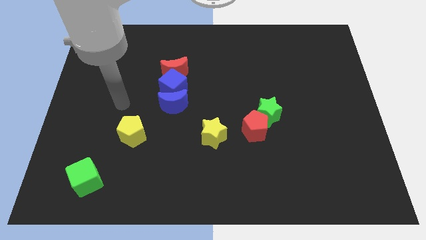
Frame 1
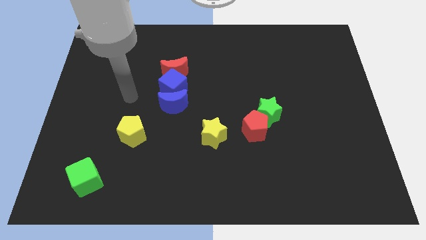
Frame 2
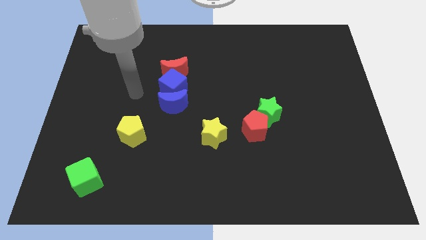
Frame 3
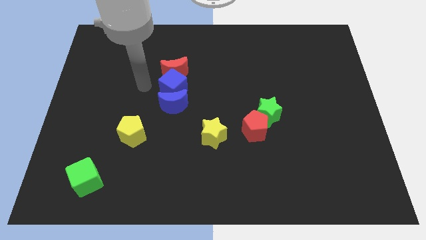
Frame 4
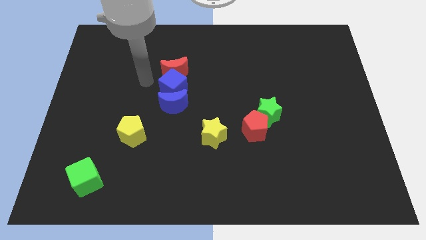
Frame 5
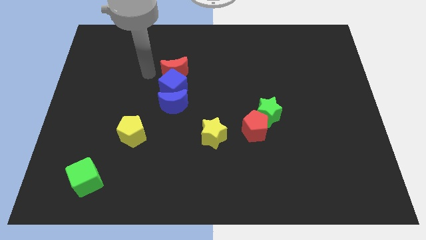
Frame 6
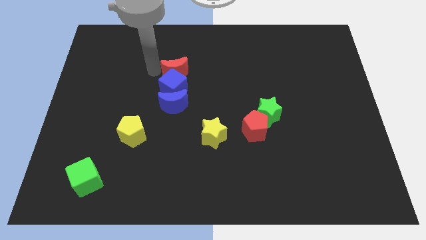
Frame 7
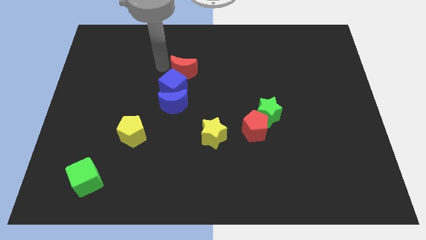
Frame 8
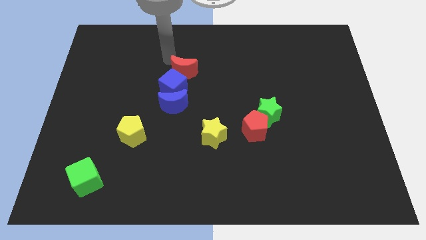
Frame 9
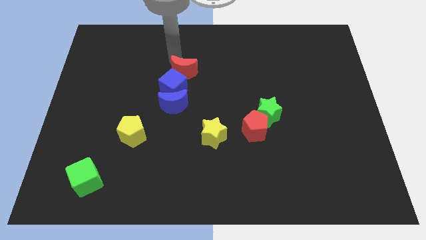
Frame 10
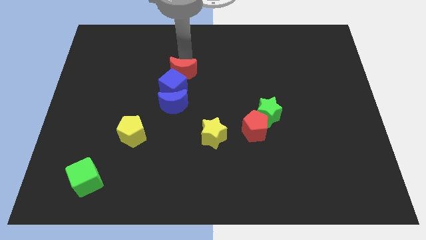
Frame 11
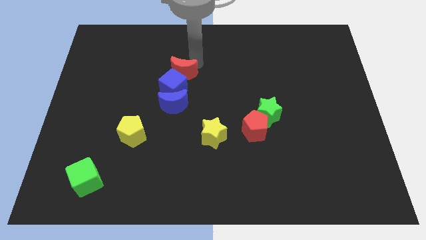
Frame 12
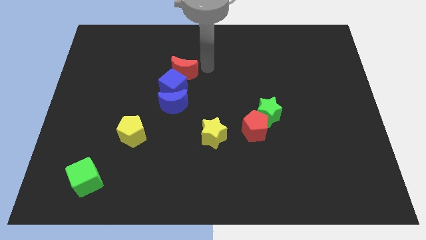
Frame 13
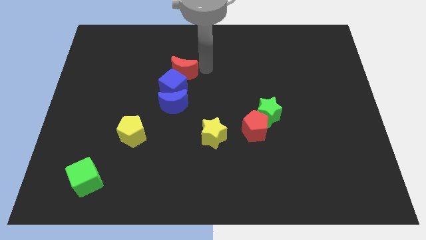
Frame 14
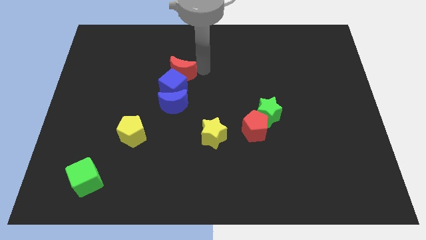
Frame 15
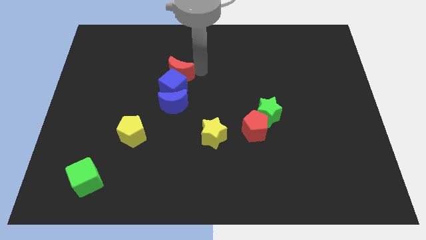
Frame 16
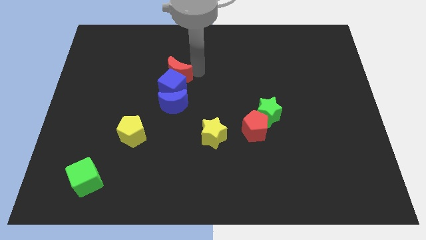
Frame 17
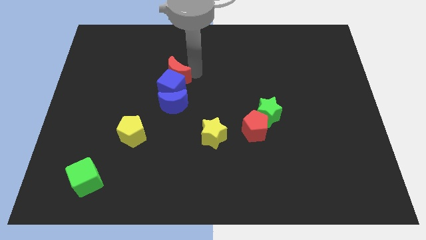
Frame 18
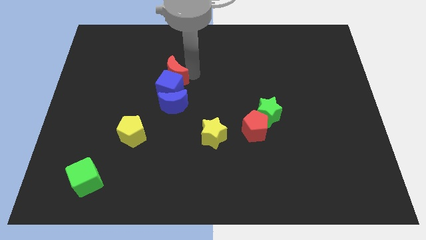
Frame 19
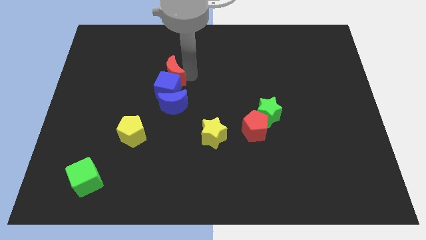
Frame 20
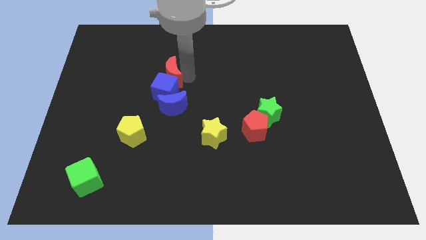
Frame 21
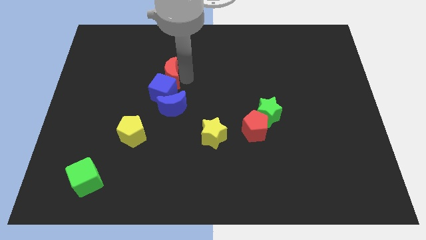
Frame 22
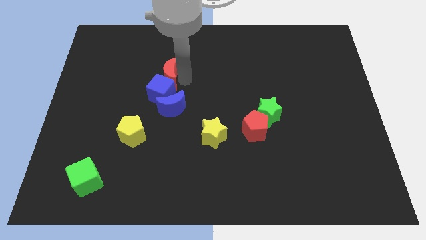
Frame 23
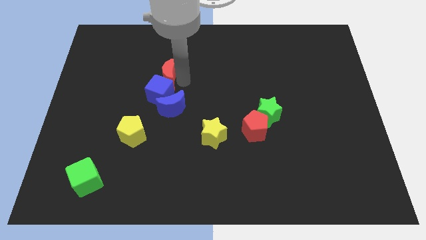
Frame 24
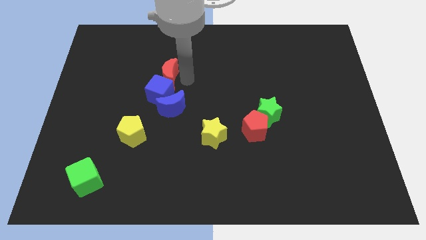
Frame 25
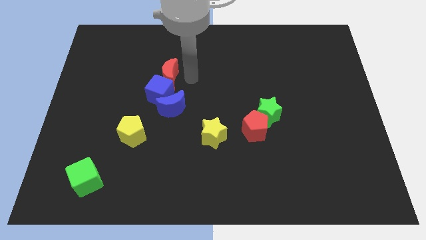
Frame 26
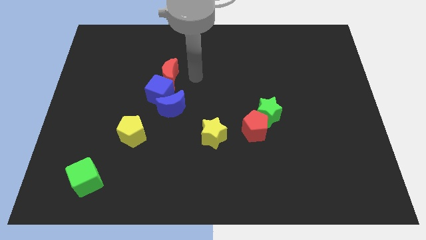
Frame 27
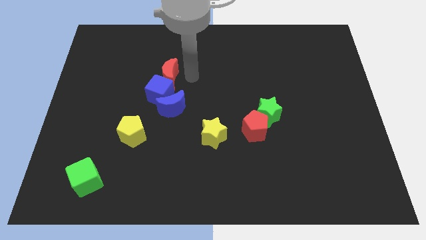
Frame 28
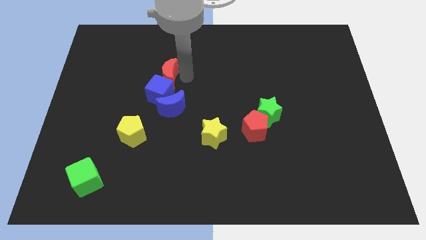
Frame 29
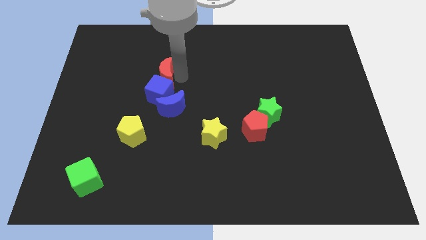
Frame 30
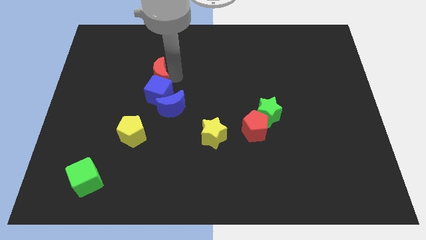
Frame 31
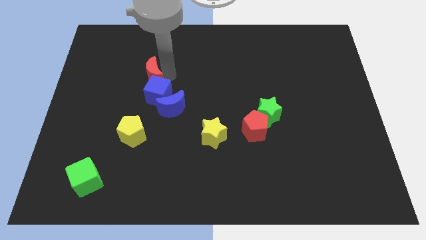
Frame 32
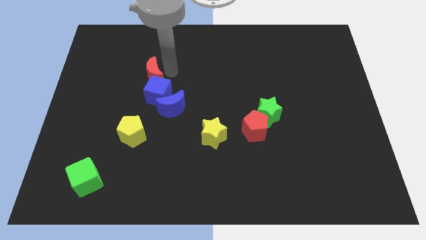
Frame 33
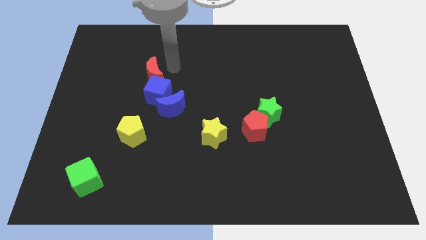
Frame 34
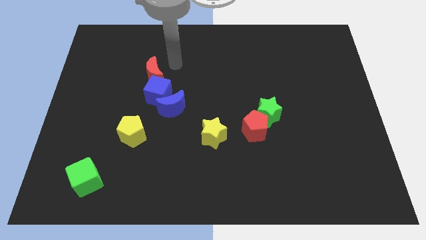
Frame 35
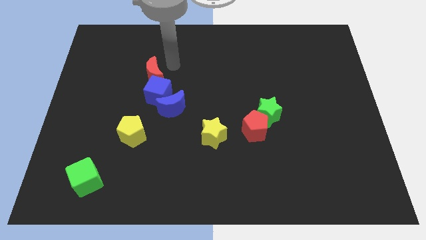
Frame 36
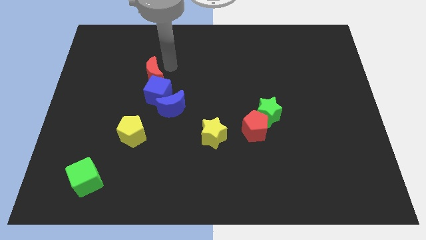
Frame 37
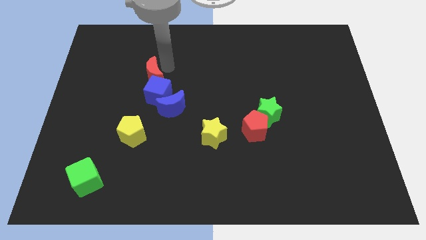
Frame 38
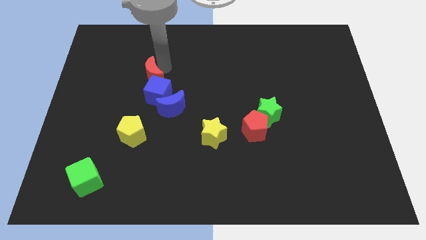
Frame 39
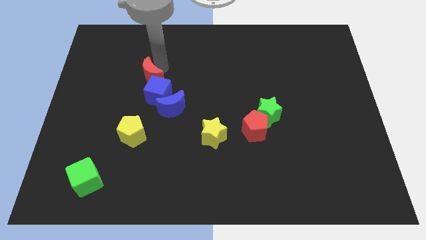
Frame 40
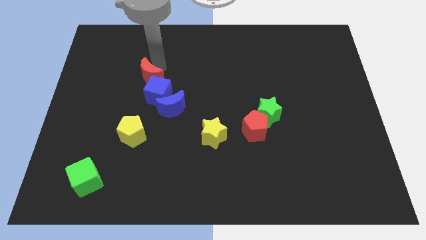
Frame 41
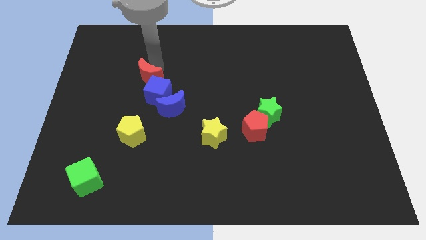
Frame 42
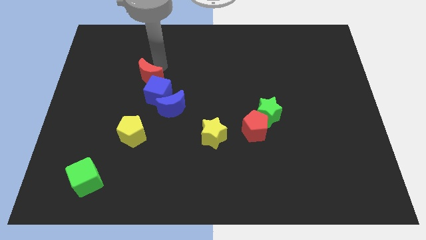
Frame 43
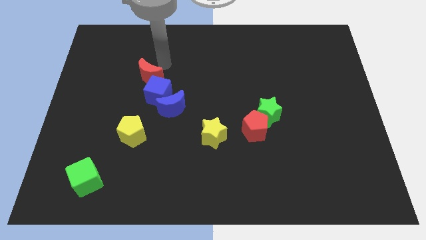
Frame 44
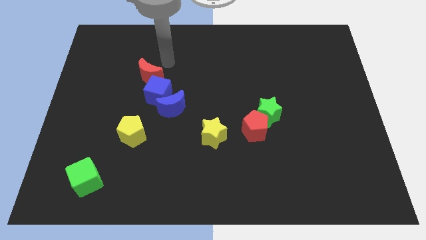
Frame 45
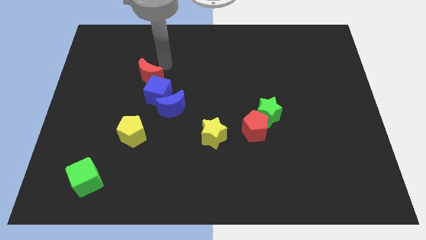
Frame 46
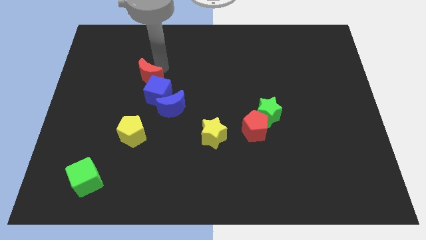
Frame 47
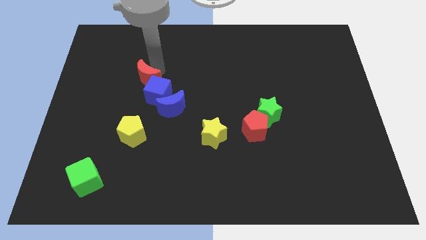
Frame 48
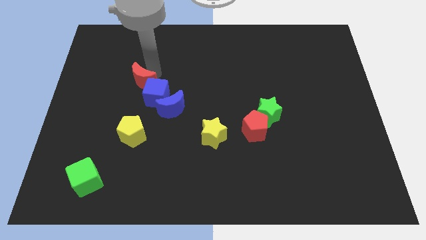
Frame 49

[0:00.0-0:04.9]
move the red moon a little bit down and then to the left

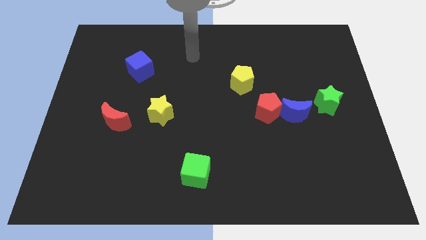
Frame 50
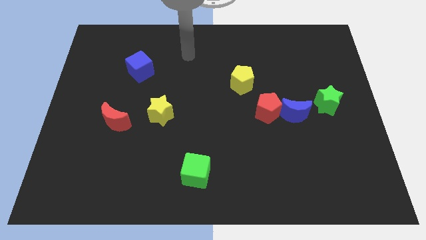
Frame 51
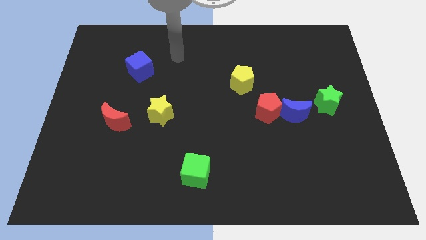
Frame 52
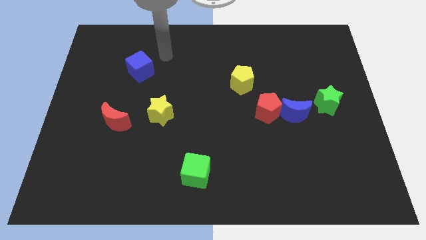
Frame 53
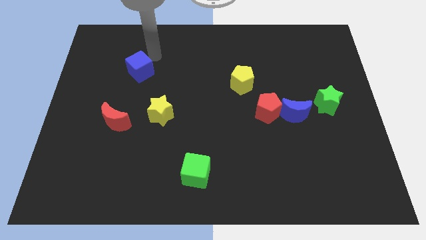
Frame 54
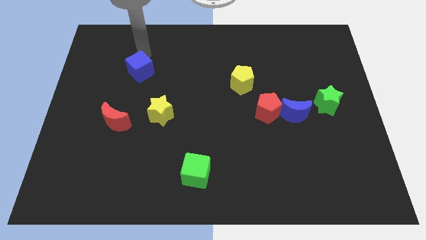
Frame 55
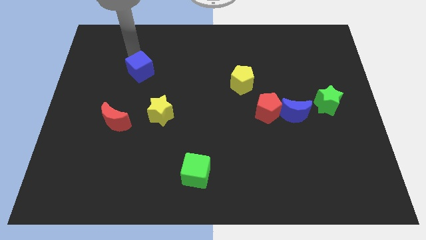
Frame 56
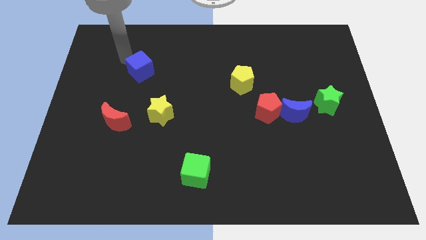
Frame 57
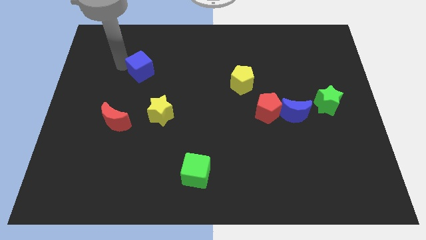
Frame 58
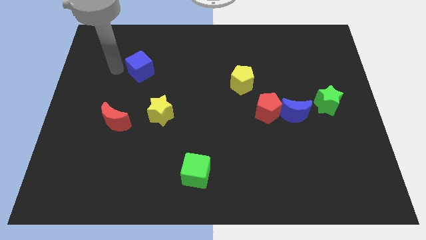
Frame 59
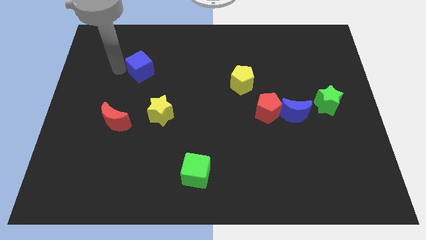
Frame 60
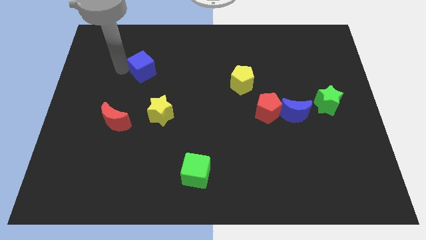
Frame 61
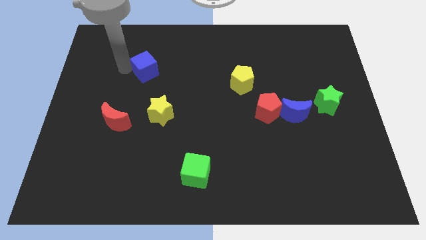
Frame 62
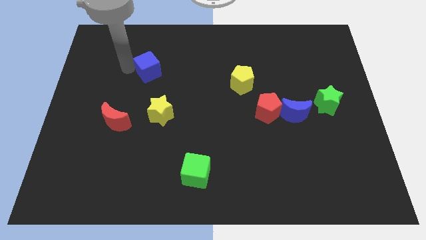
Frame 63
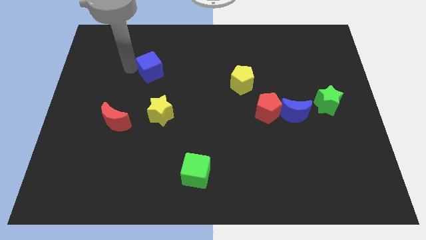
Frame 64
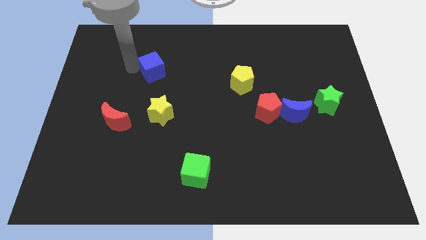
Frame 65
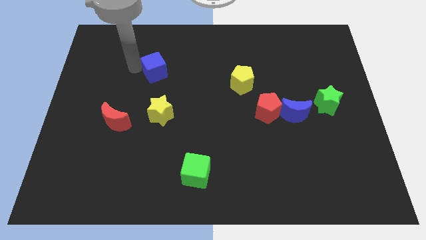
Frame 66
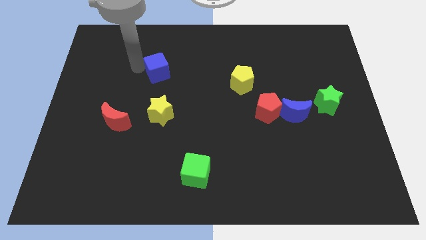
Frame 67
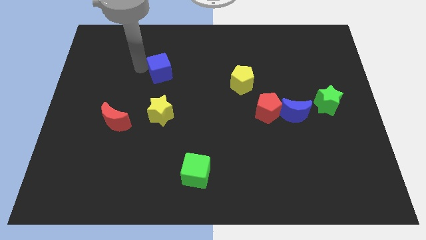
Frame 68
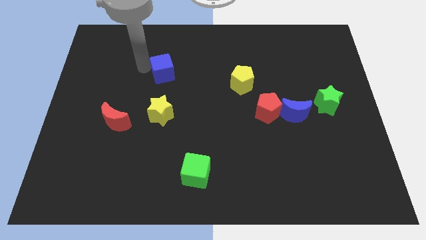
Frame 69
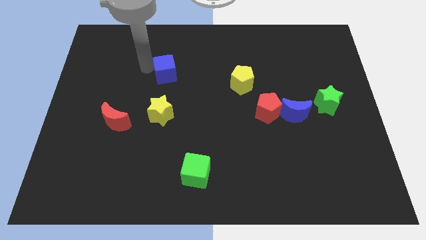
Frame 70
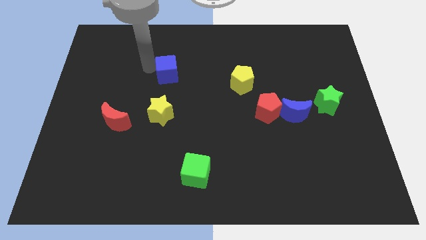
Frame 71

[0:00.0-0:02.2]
move the blue cube slightly to the right

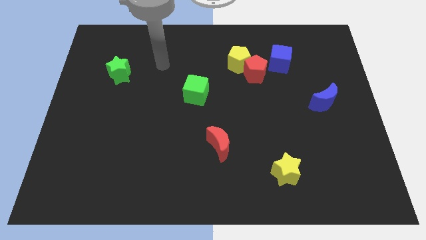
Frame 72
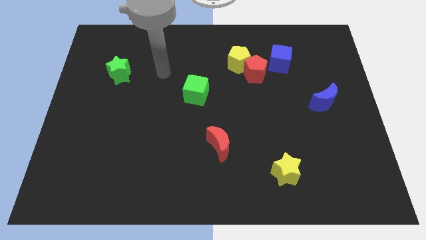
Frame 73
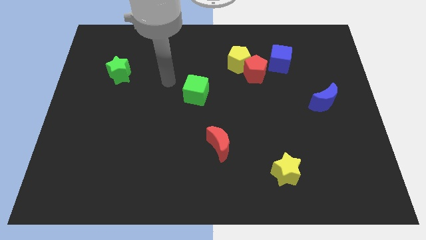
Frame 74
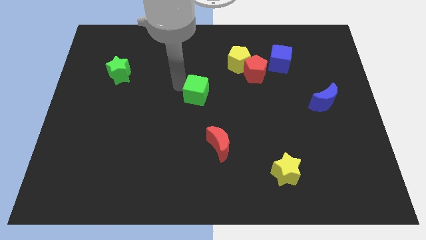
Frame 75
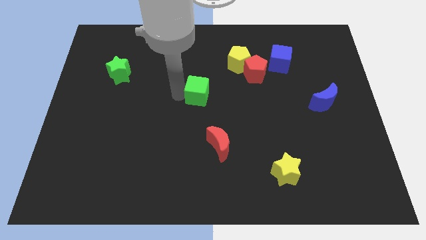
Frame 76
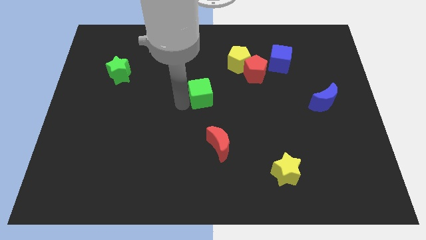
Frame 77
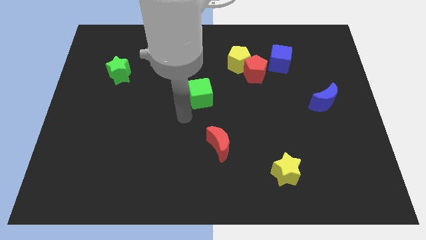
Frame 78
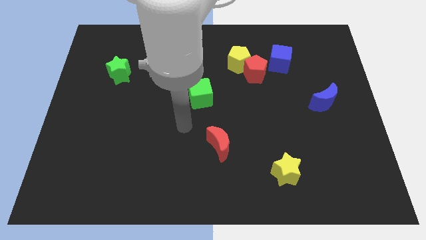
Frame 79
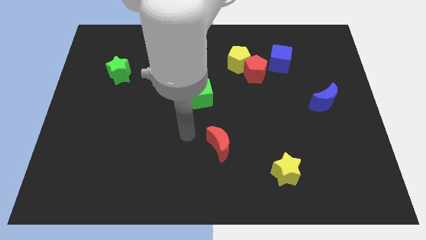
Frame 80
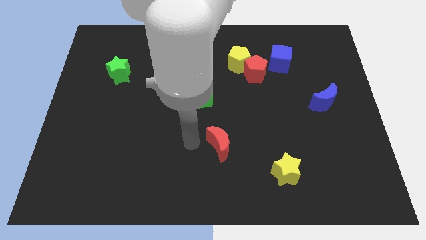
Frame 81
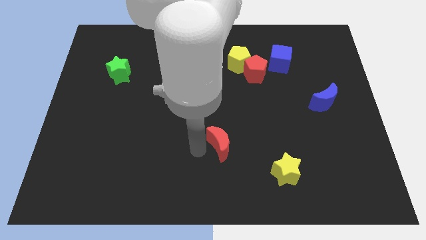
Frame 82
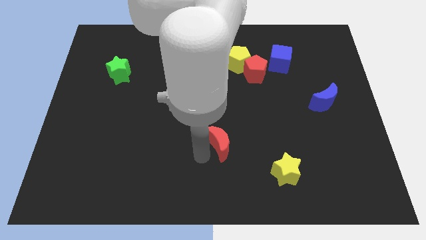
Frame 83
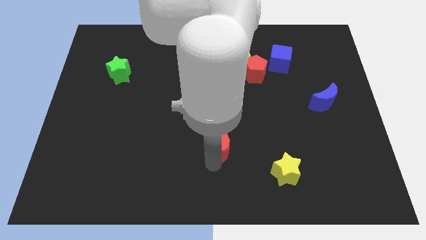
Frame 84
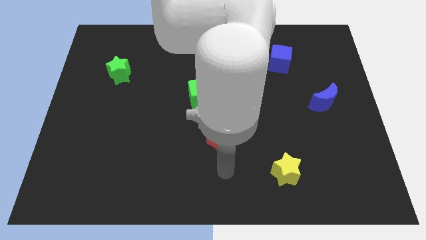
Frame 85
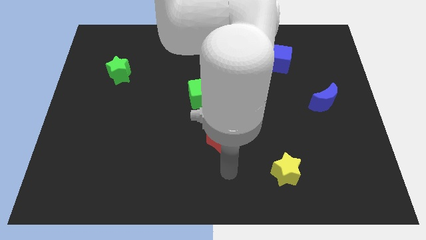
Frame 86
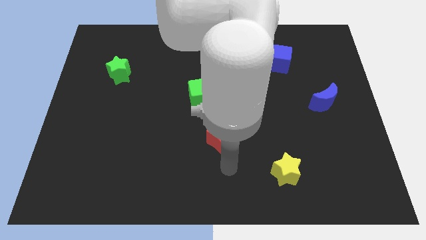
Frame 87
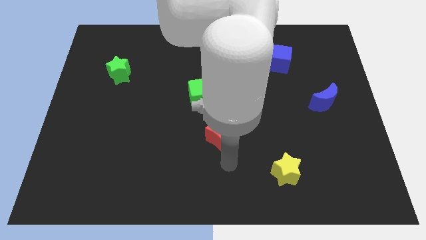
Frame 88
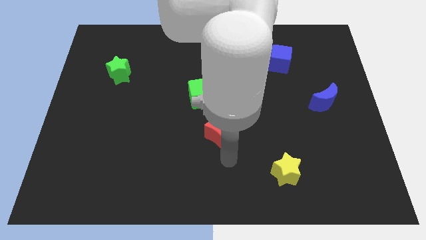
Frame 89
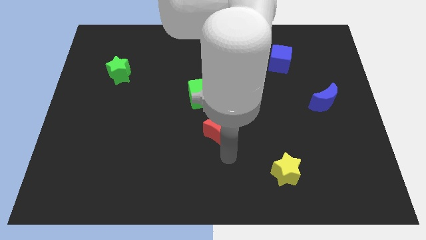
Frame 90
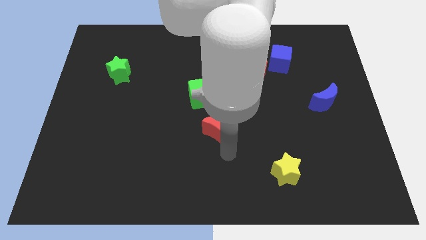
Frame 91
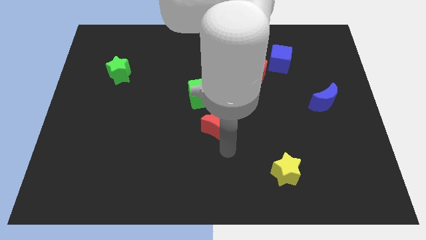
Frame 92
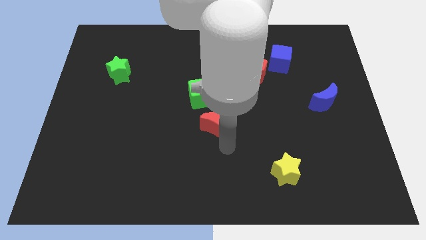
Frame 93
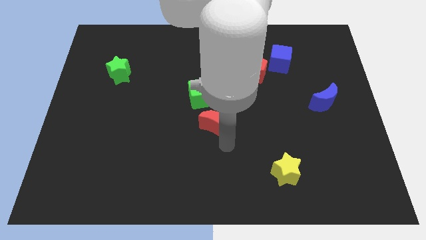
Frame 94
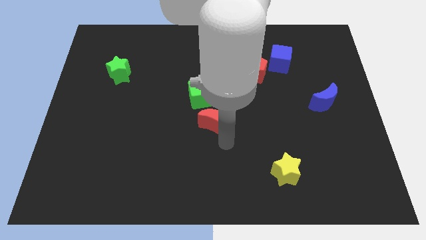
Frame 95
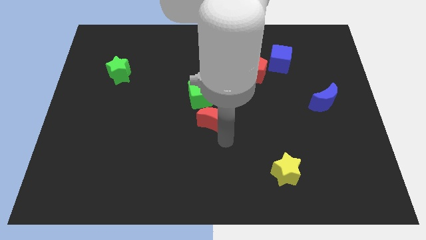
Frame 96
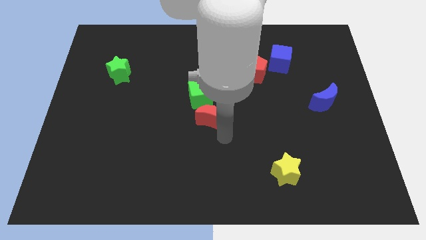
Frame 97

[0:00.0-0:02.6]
slightly push the red moon up
